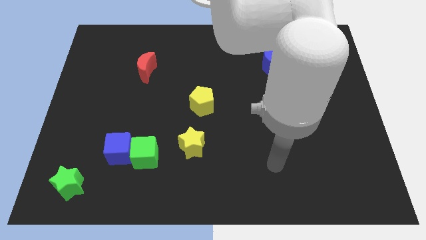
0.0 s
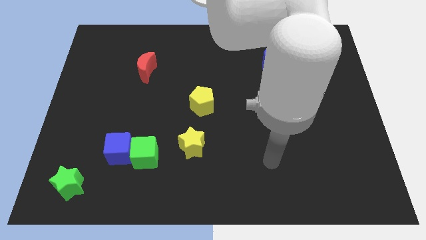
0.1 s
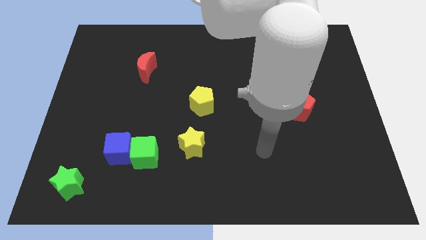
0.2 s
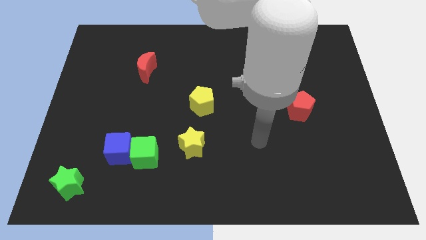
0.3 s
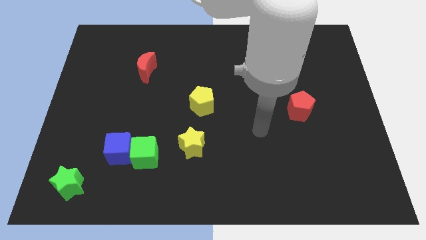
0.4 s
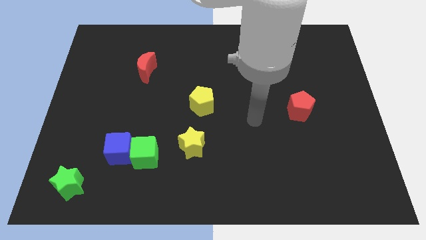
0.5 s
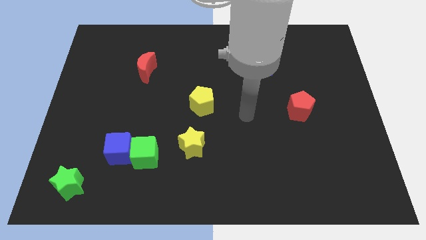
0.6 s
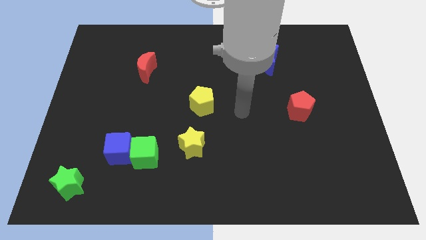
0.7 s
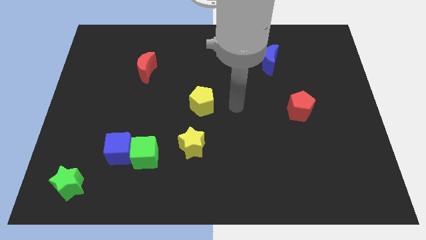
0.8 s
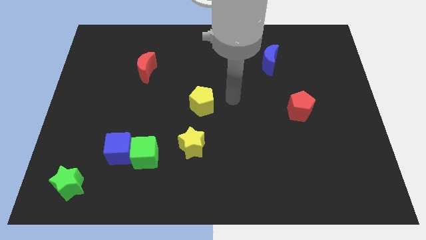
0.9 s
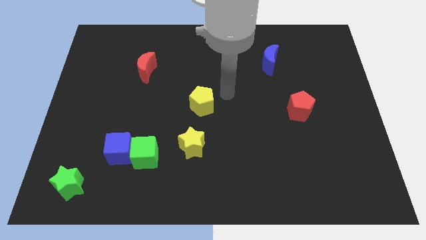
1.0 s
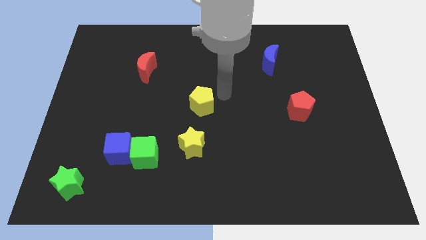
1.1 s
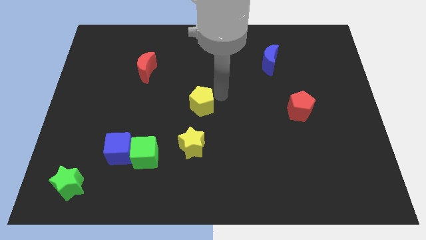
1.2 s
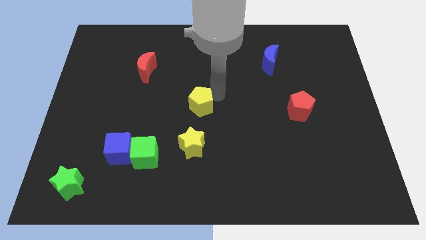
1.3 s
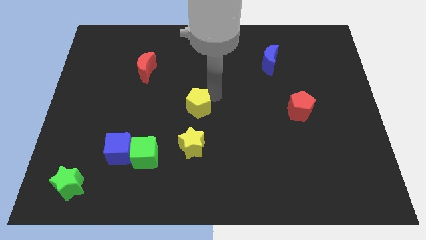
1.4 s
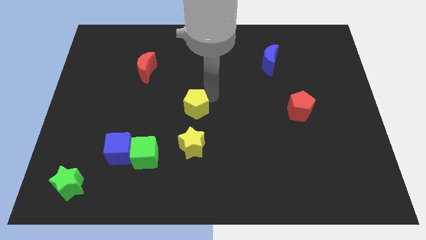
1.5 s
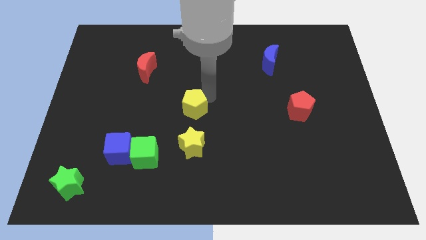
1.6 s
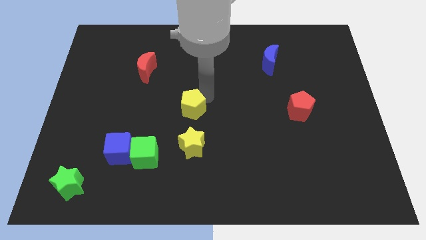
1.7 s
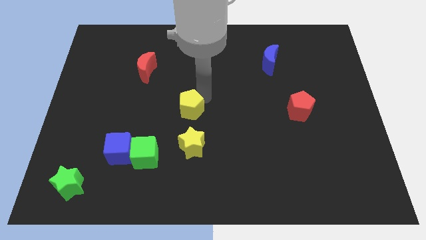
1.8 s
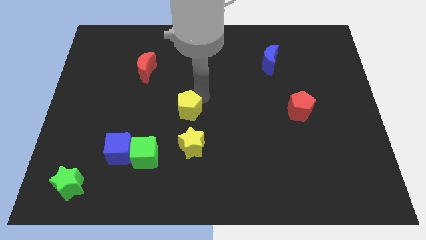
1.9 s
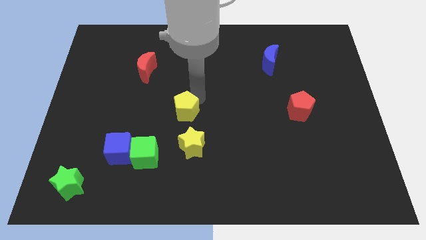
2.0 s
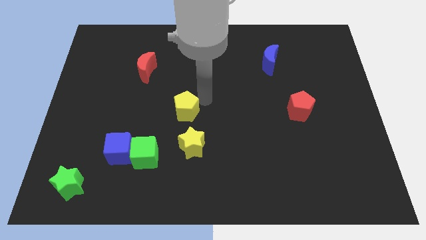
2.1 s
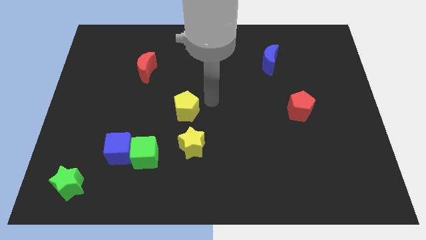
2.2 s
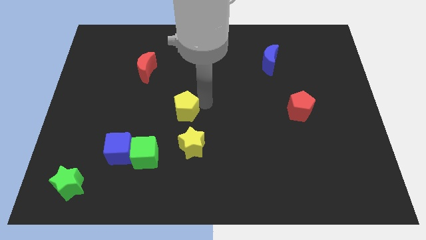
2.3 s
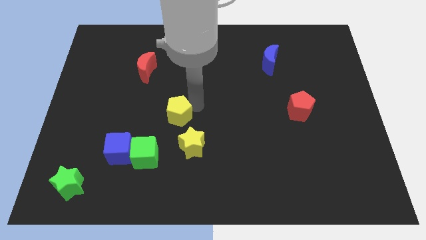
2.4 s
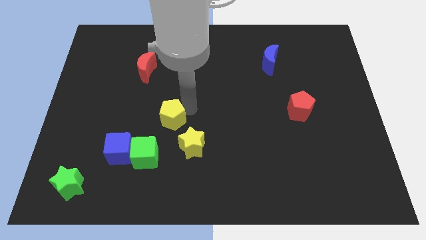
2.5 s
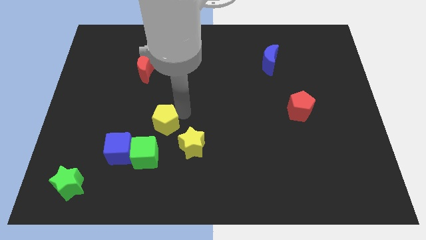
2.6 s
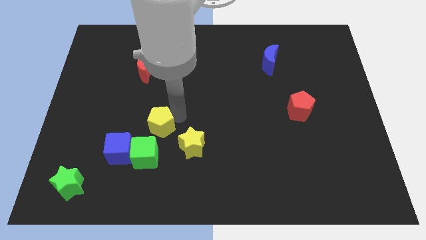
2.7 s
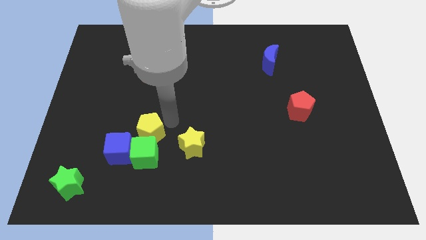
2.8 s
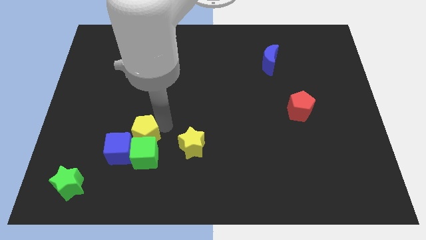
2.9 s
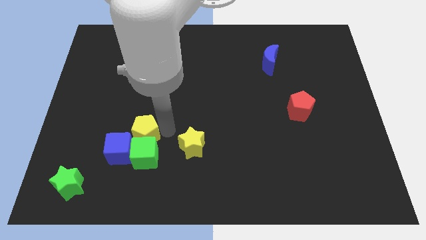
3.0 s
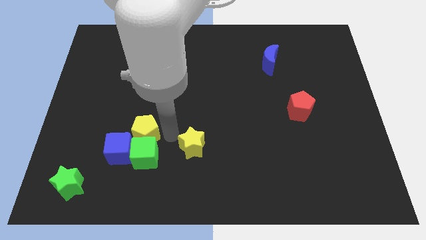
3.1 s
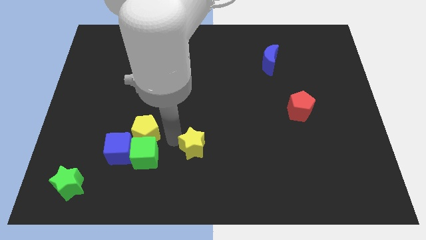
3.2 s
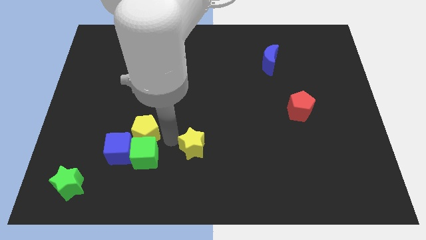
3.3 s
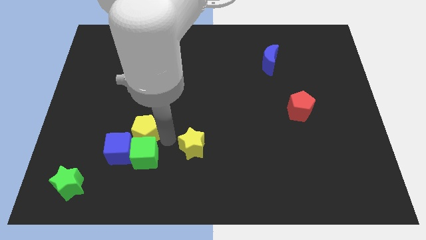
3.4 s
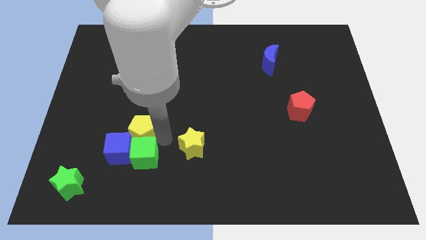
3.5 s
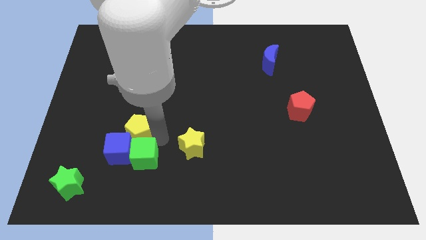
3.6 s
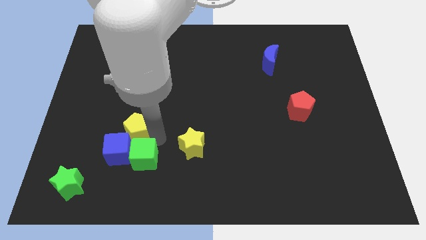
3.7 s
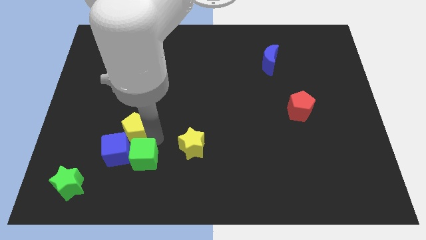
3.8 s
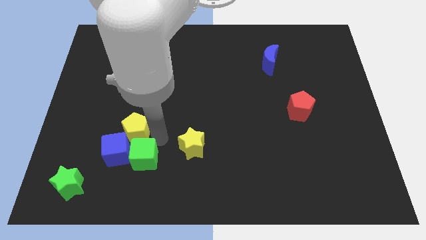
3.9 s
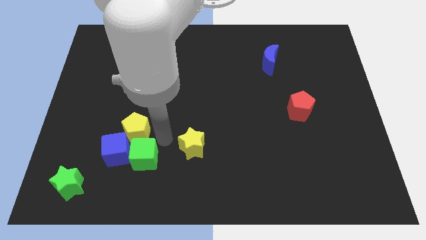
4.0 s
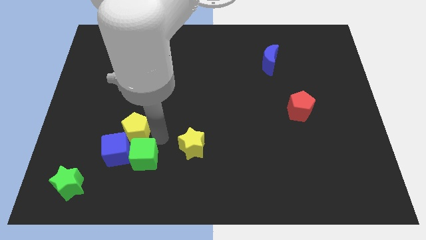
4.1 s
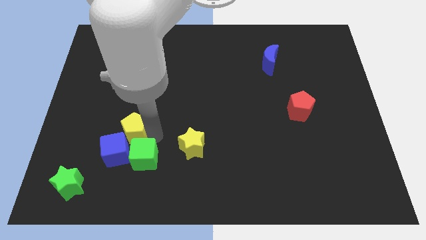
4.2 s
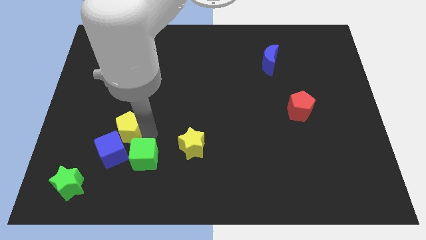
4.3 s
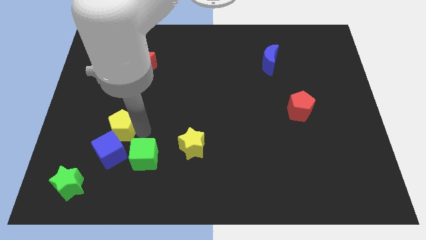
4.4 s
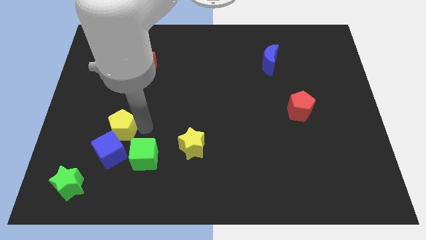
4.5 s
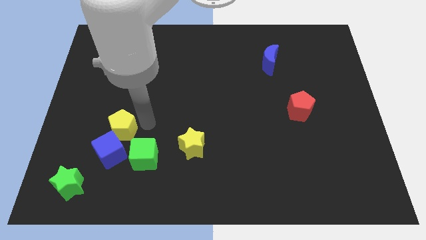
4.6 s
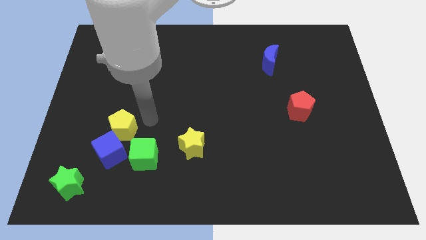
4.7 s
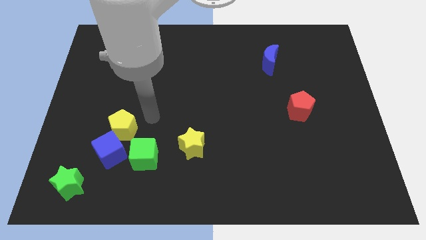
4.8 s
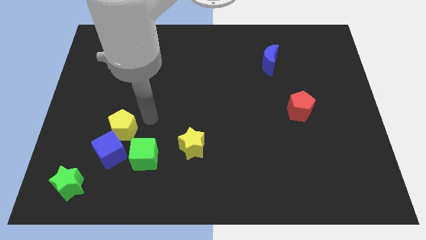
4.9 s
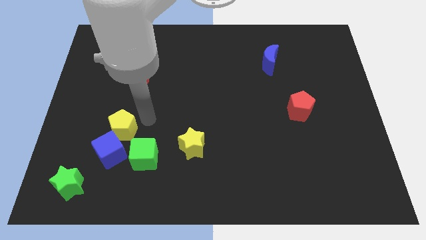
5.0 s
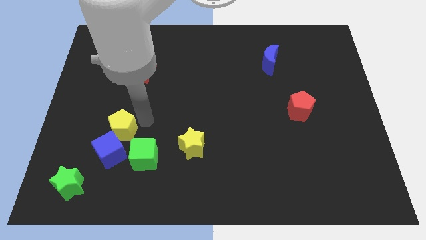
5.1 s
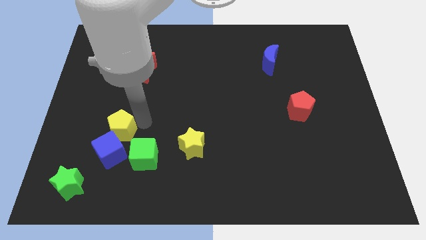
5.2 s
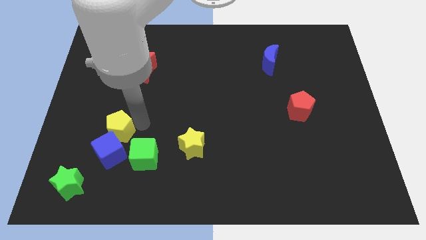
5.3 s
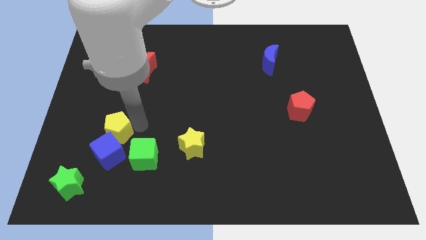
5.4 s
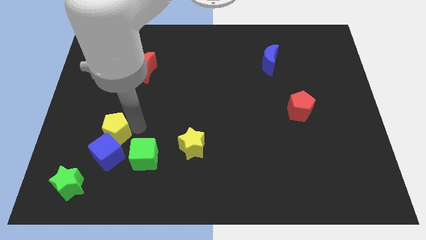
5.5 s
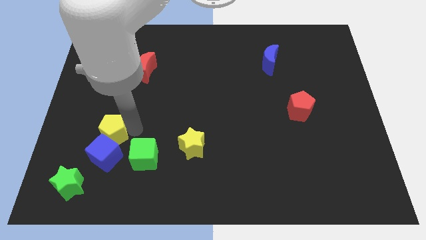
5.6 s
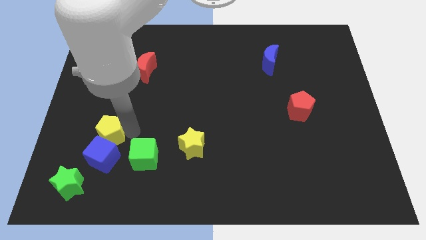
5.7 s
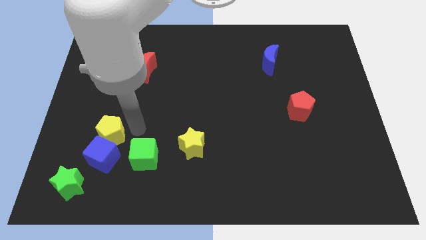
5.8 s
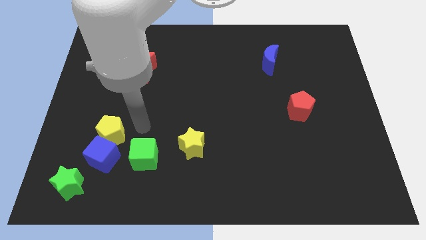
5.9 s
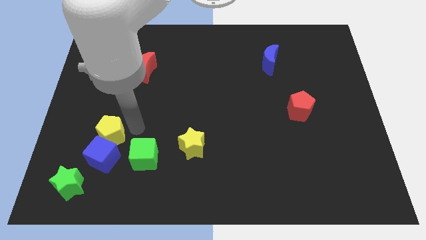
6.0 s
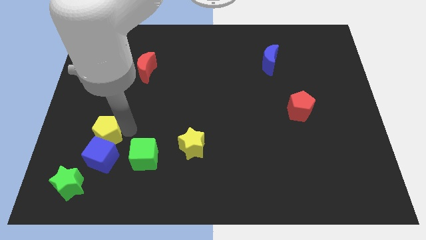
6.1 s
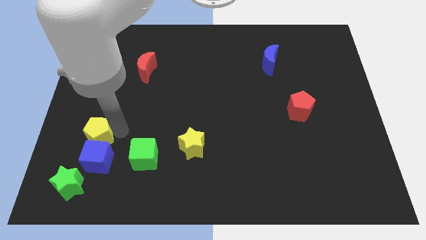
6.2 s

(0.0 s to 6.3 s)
put the yellow pentagon above the green star
